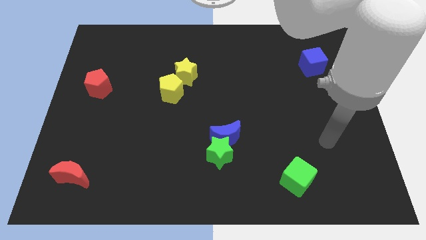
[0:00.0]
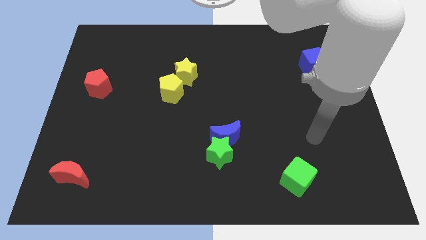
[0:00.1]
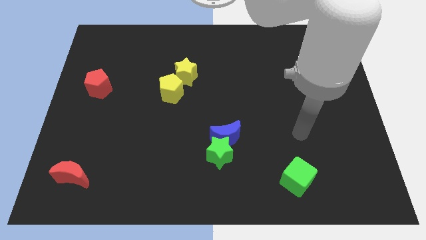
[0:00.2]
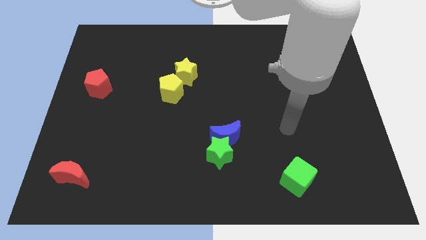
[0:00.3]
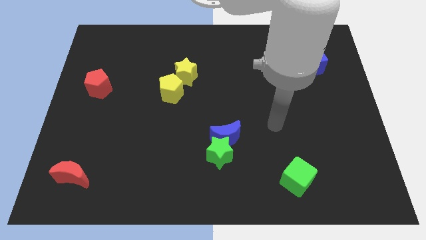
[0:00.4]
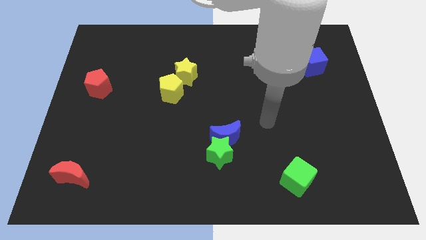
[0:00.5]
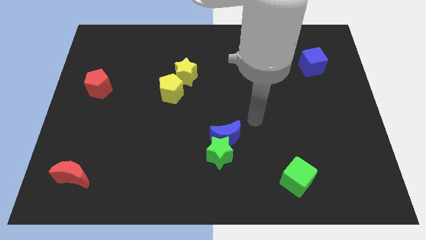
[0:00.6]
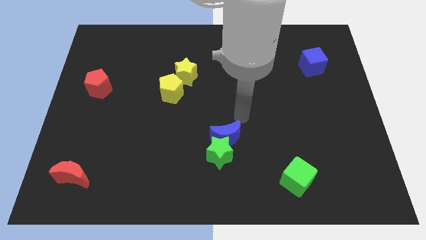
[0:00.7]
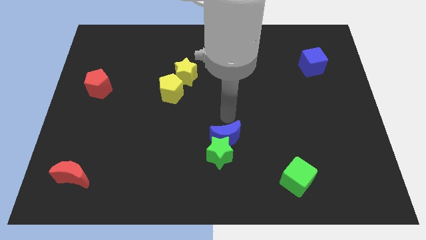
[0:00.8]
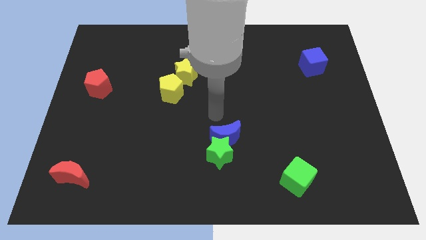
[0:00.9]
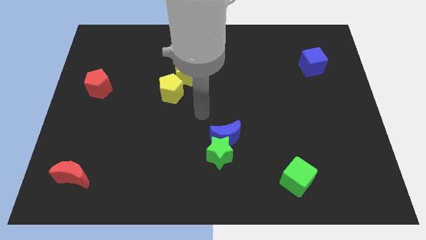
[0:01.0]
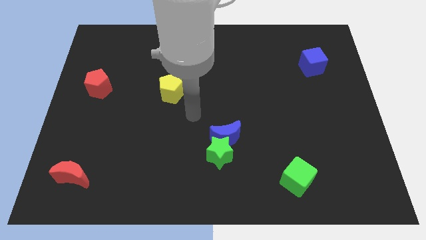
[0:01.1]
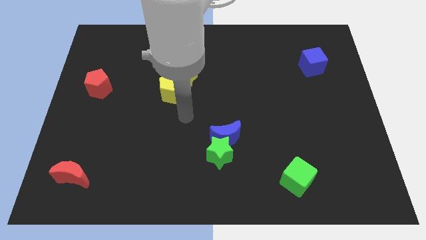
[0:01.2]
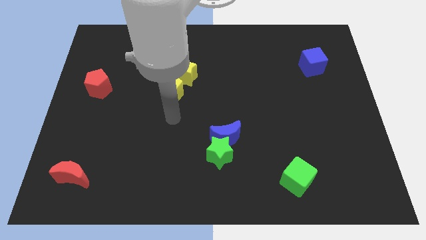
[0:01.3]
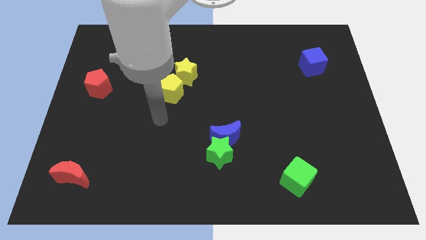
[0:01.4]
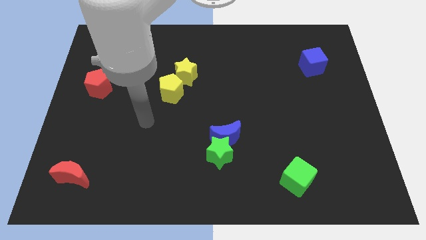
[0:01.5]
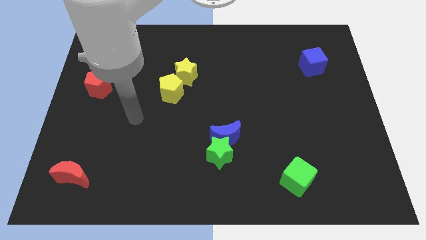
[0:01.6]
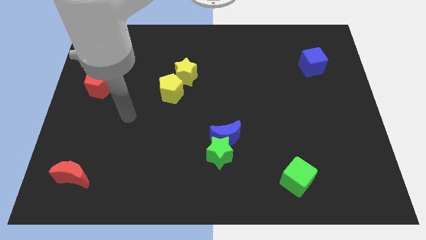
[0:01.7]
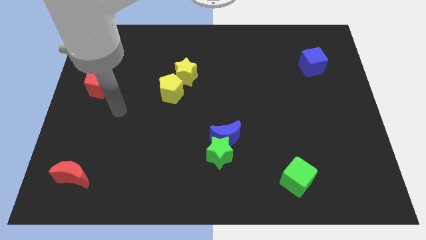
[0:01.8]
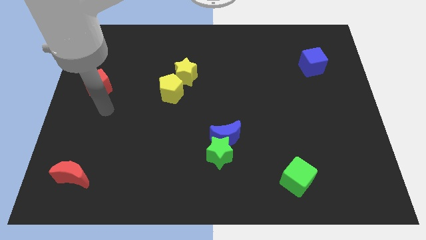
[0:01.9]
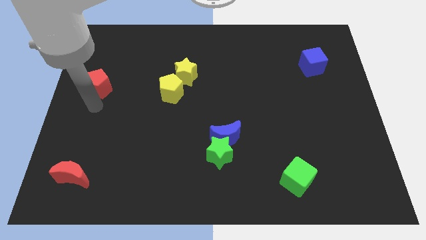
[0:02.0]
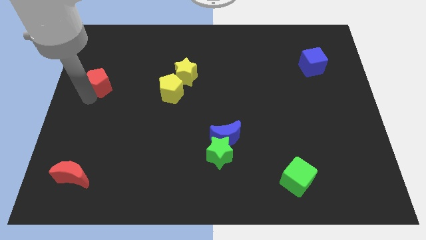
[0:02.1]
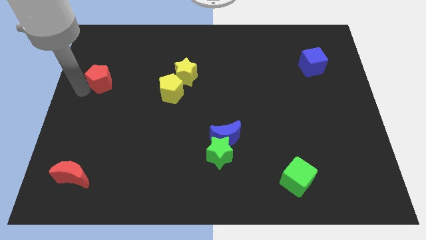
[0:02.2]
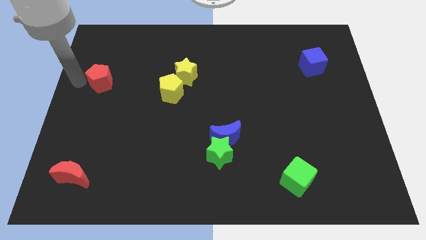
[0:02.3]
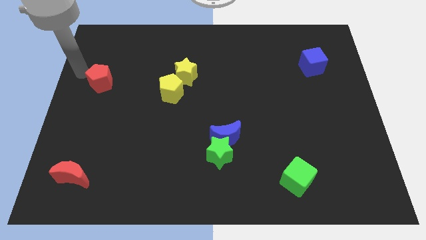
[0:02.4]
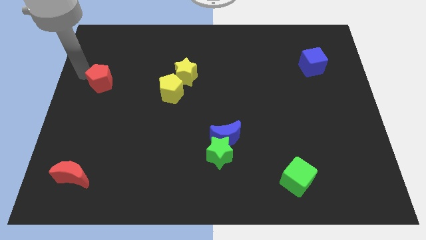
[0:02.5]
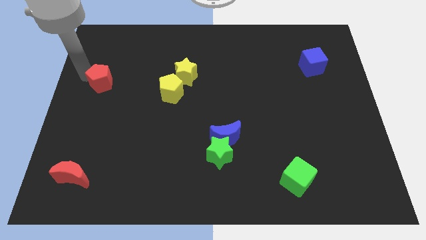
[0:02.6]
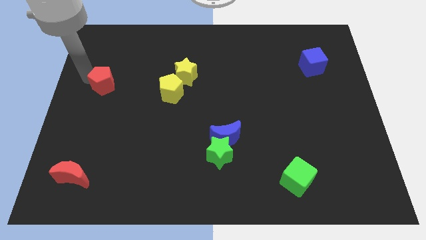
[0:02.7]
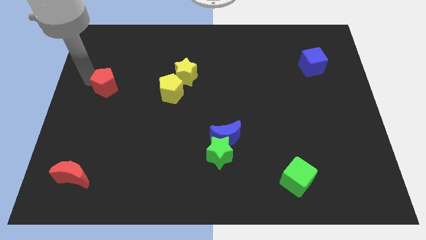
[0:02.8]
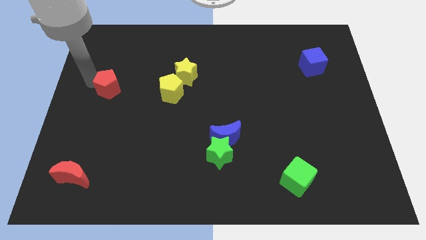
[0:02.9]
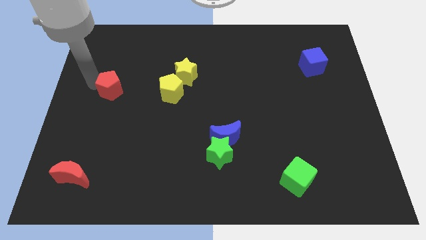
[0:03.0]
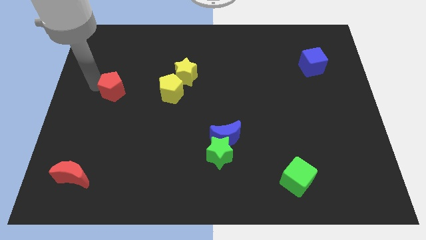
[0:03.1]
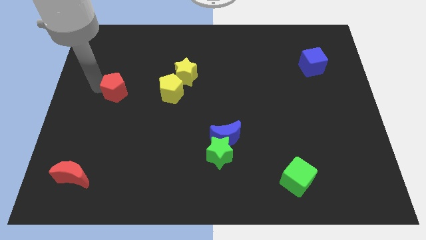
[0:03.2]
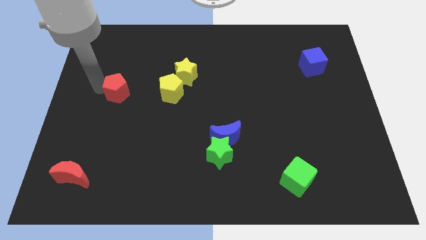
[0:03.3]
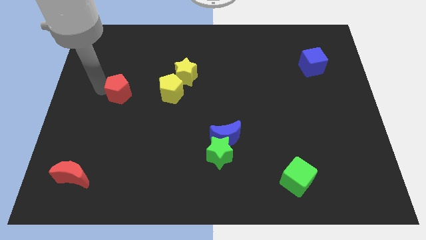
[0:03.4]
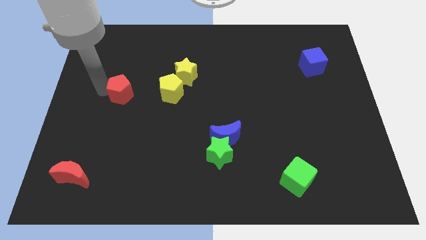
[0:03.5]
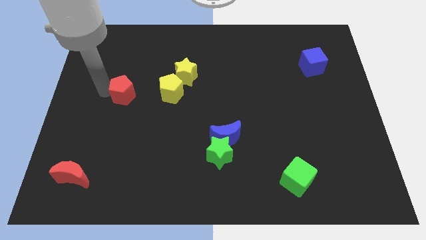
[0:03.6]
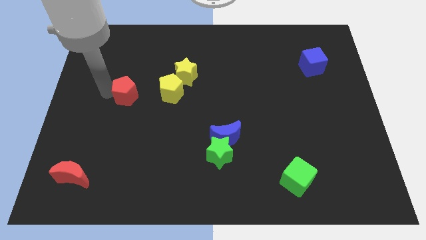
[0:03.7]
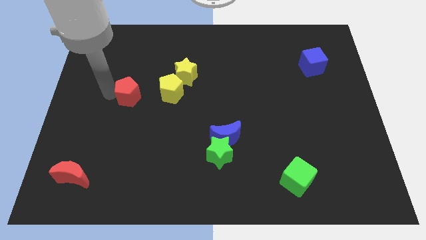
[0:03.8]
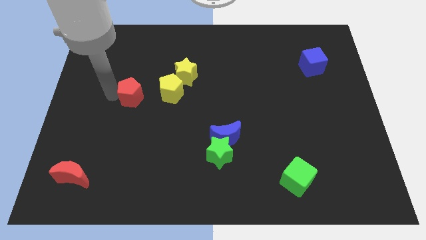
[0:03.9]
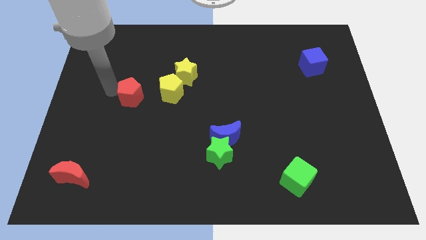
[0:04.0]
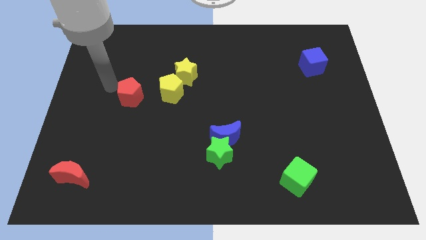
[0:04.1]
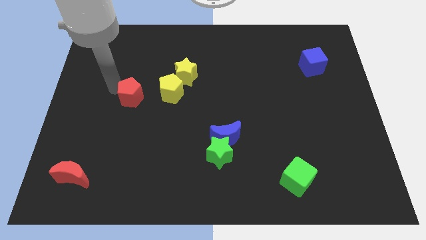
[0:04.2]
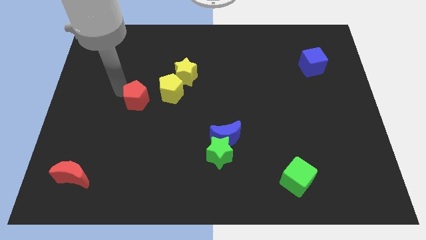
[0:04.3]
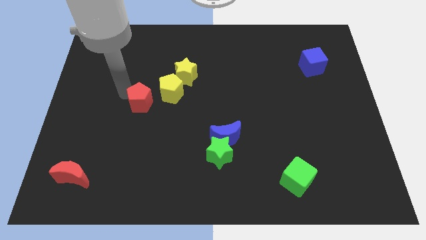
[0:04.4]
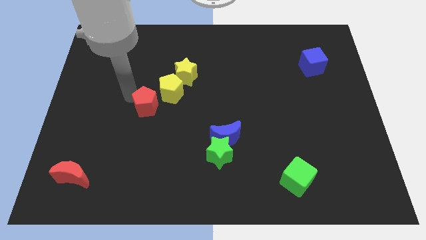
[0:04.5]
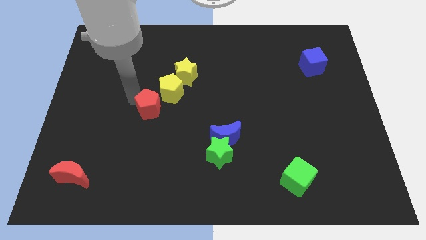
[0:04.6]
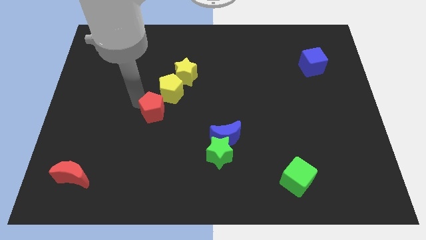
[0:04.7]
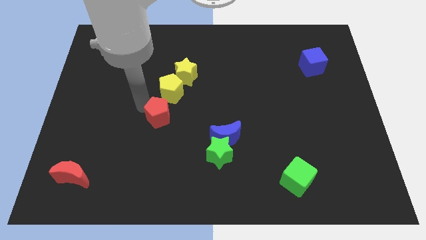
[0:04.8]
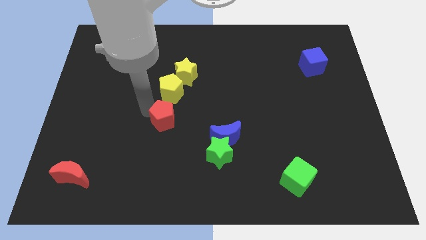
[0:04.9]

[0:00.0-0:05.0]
slide the red pentagon to the center
